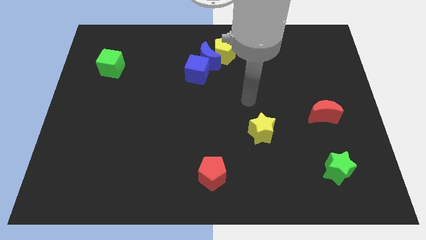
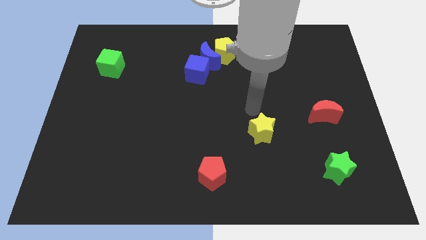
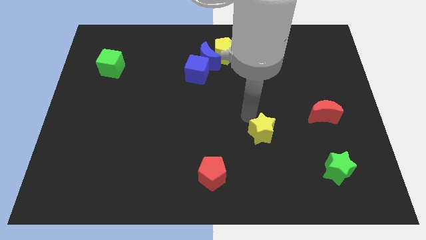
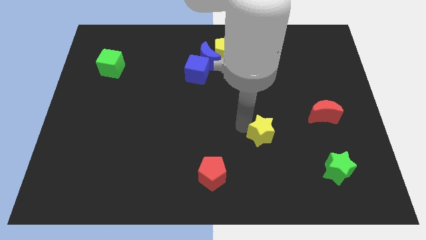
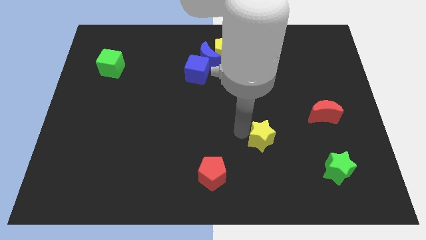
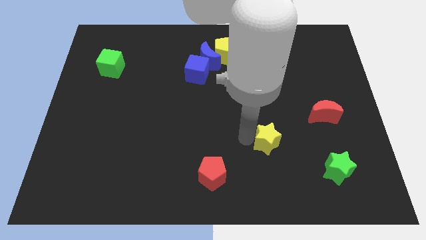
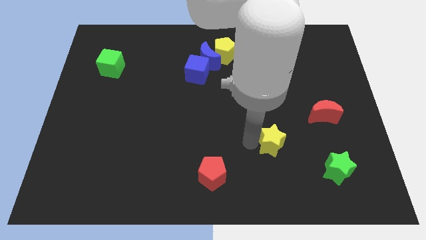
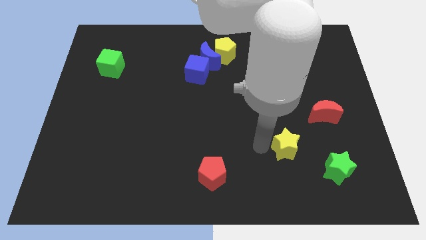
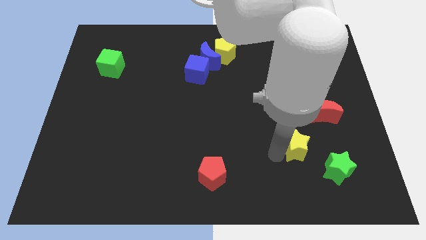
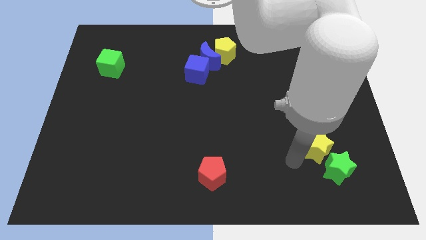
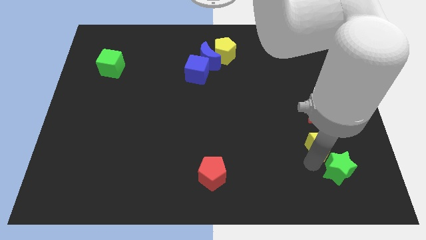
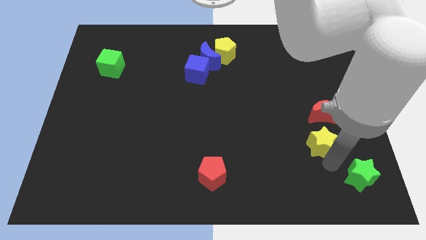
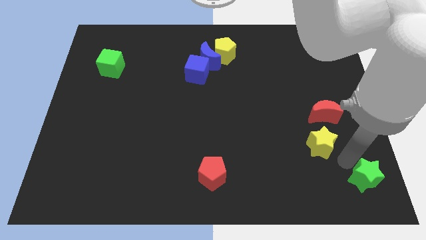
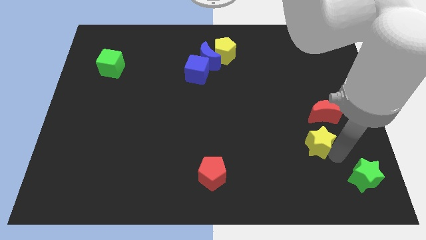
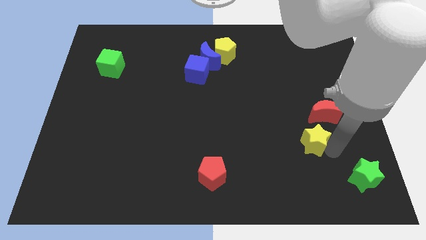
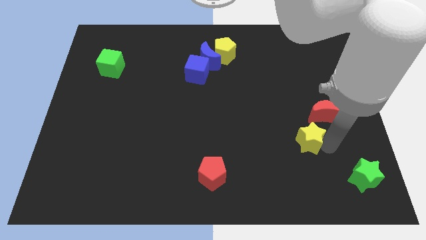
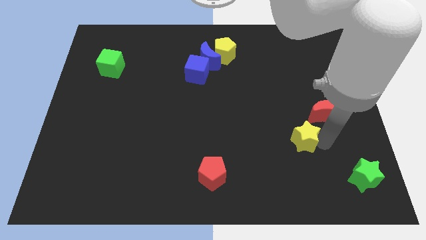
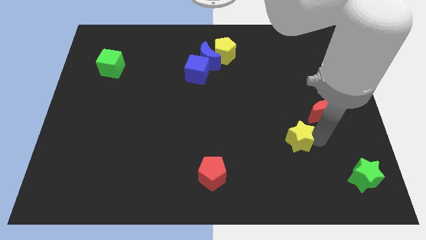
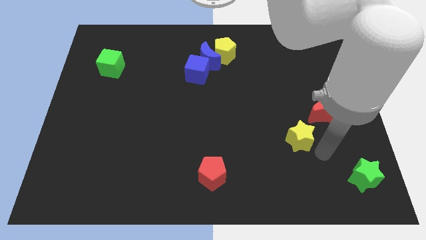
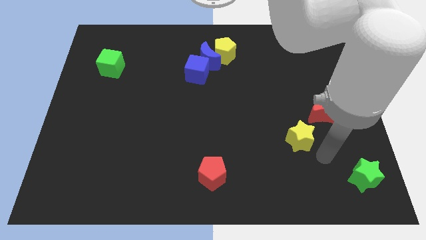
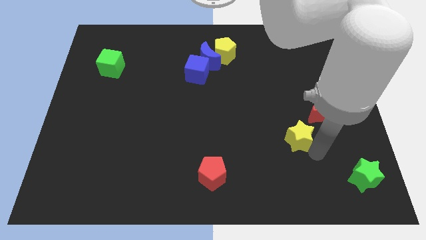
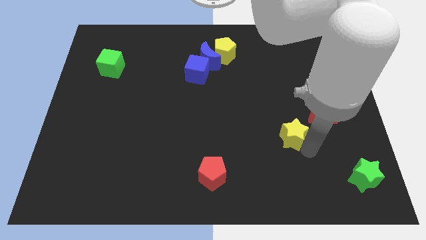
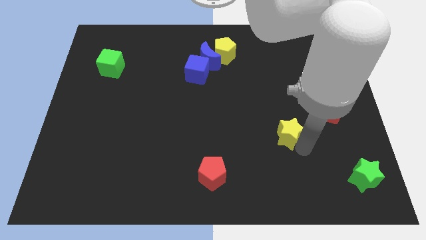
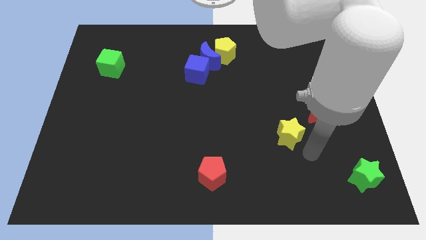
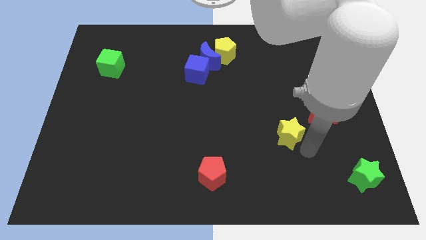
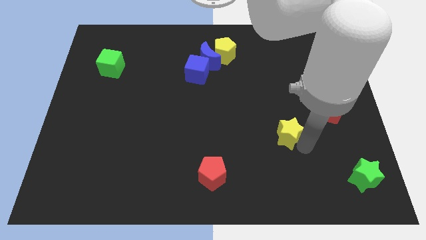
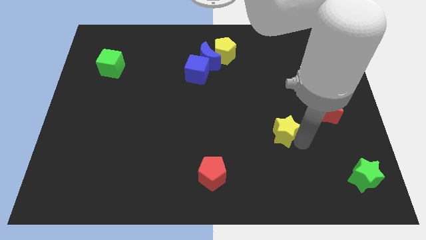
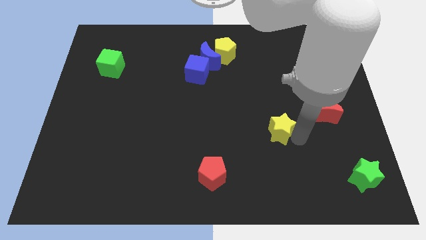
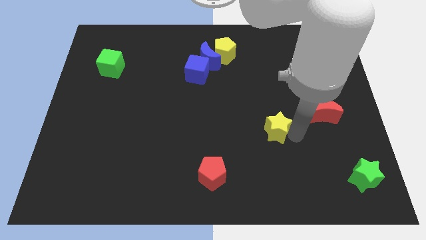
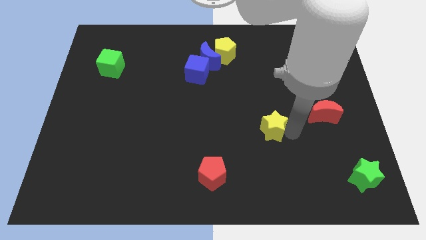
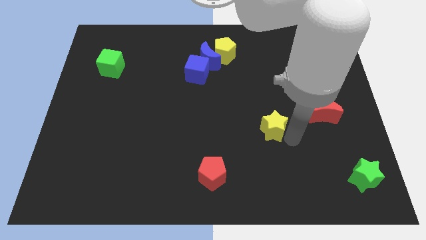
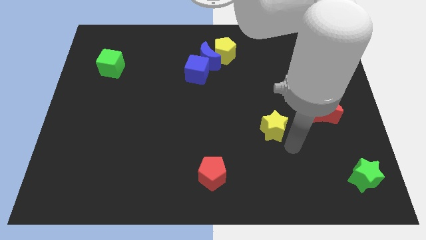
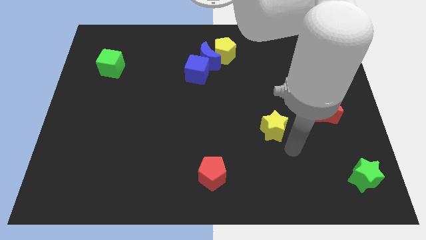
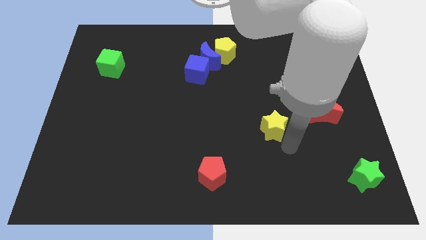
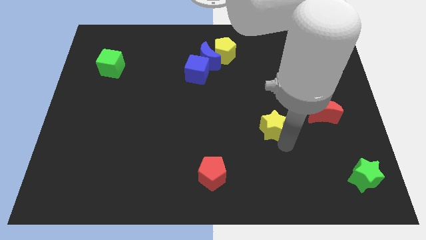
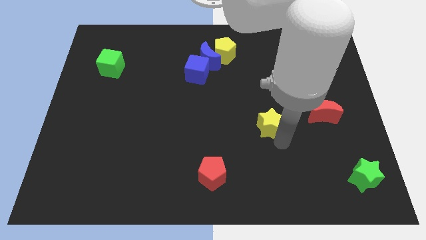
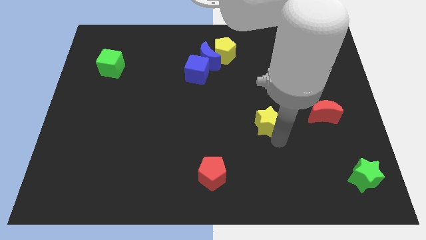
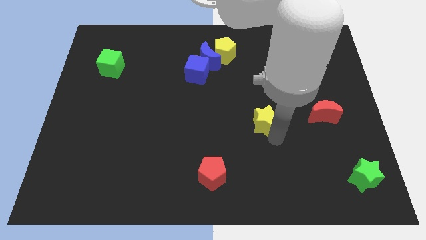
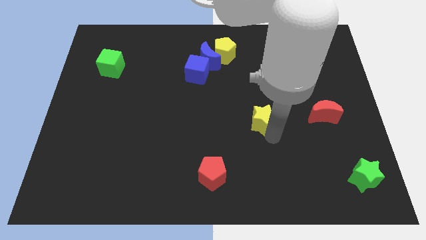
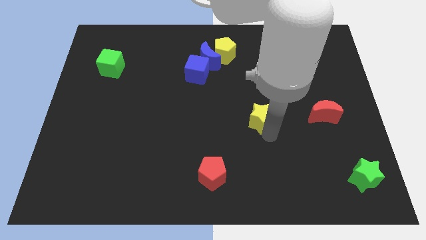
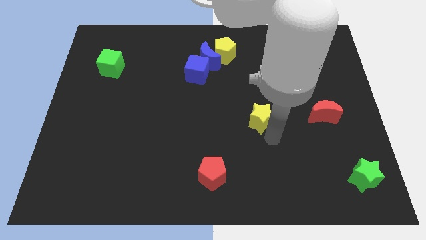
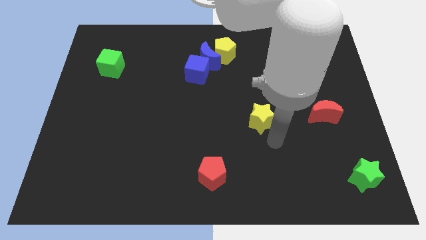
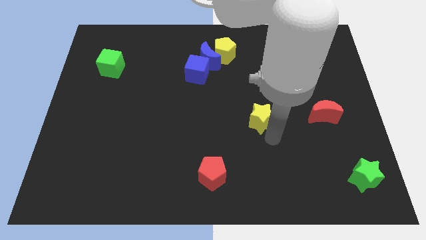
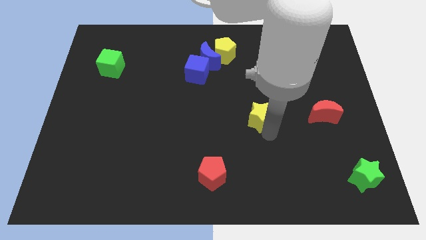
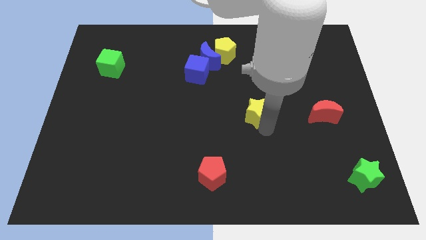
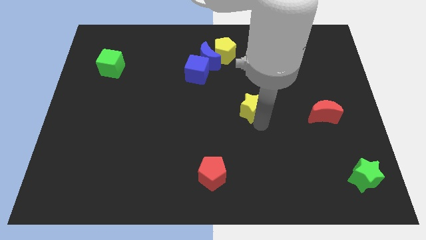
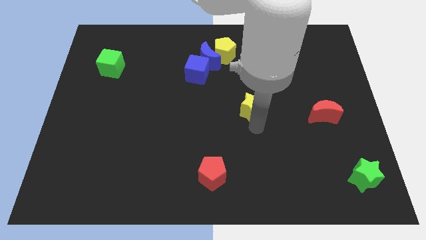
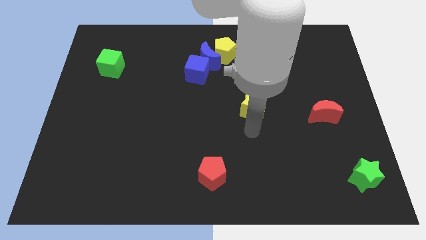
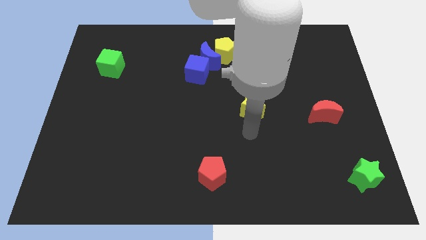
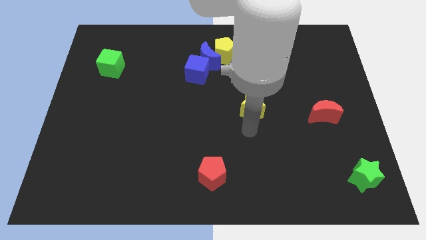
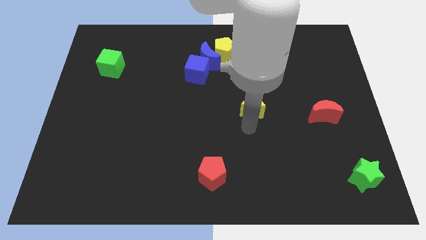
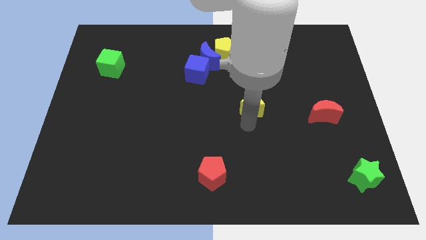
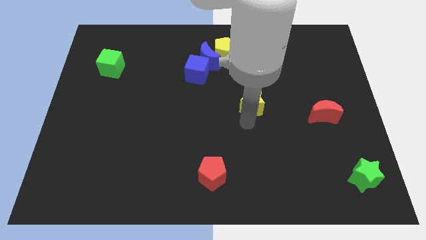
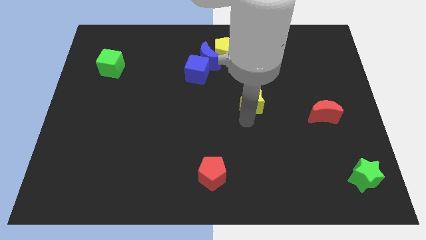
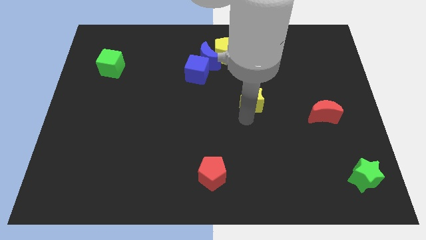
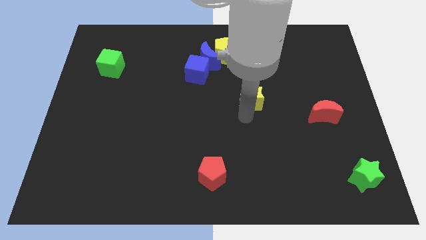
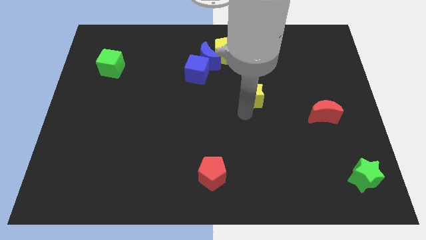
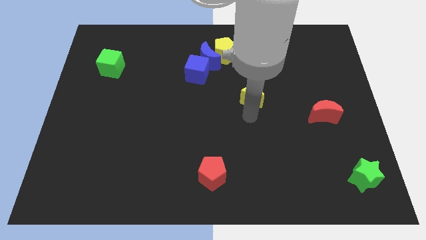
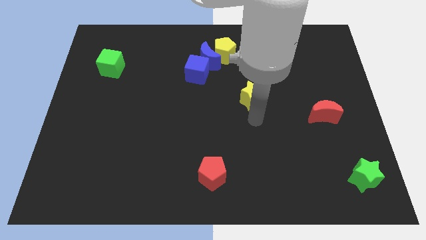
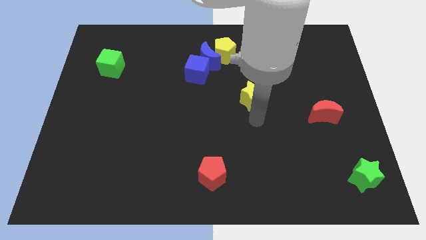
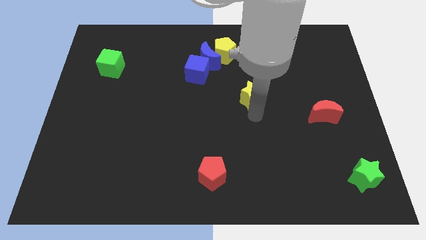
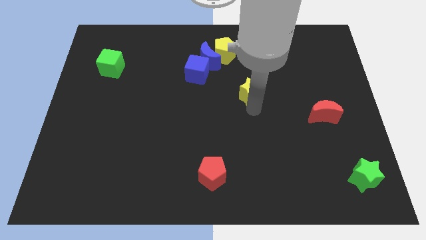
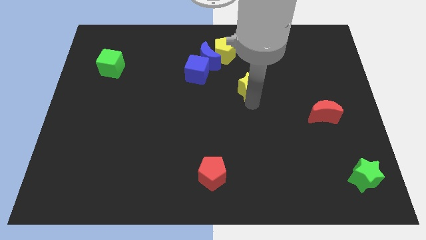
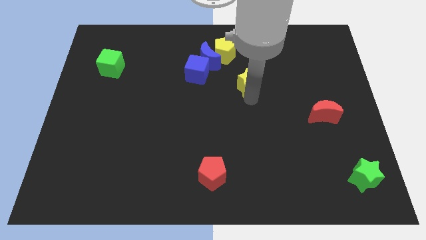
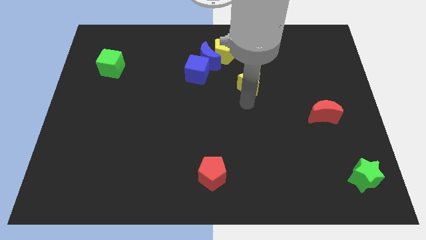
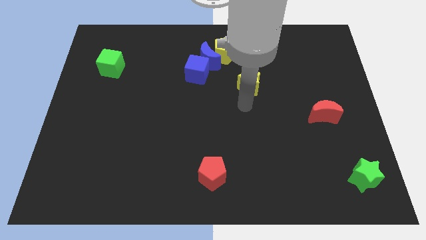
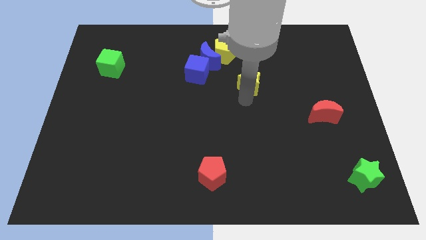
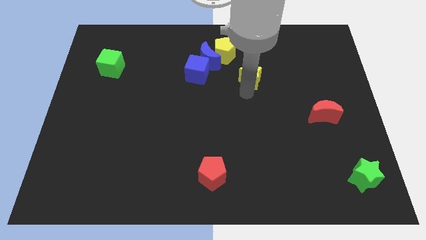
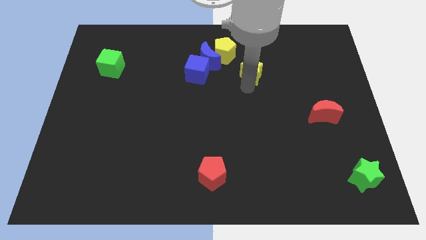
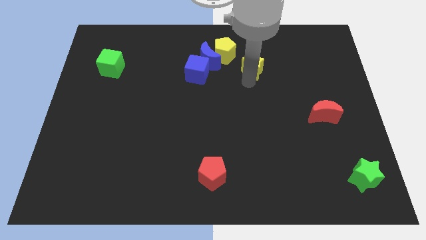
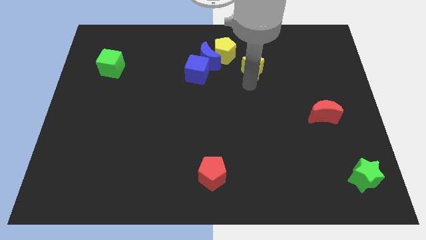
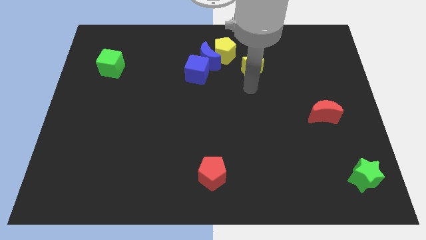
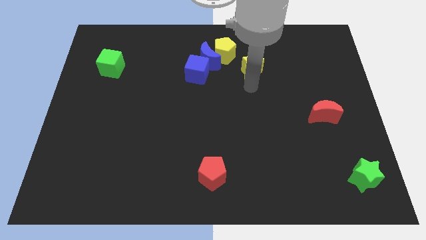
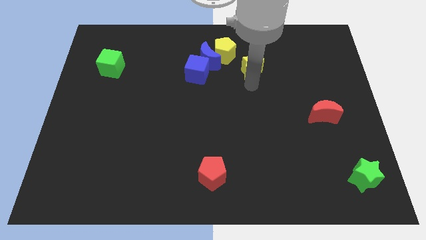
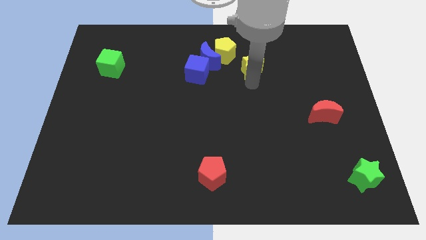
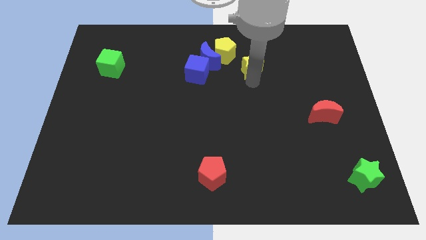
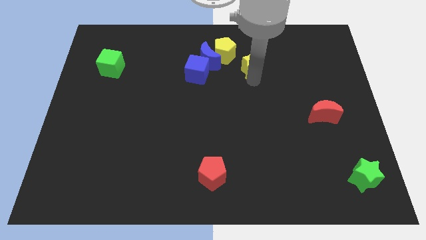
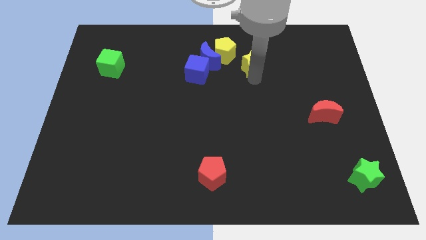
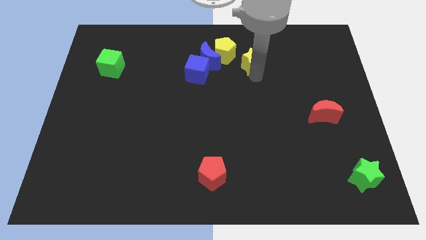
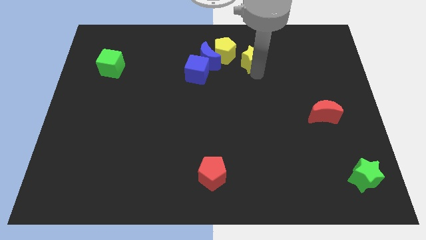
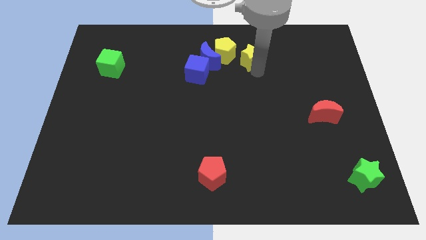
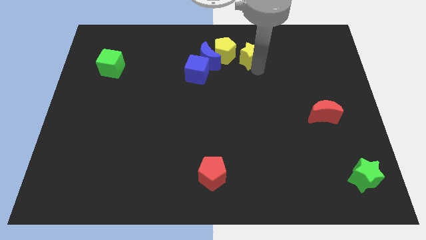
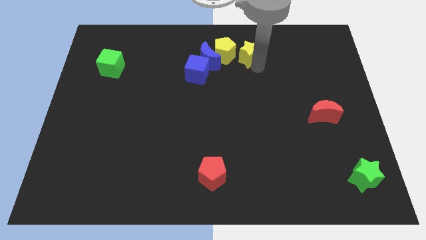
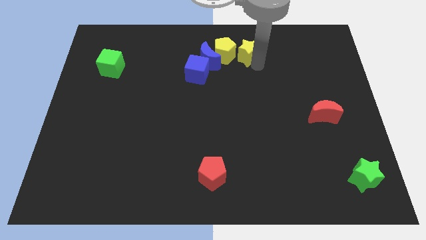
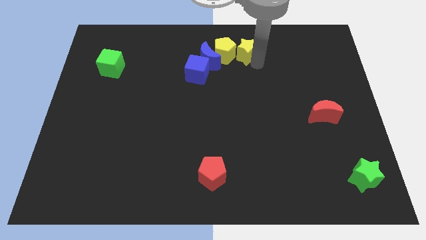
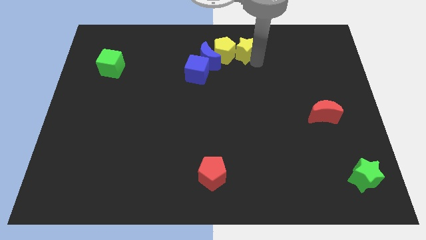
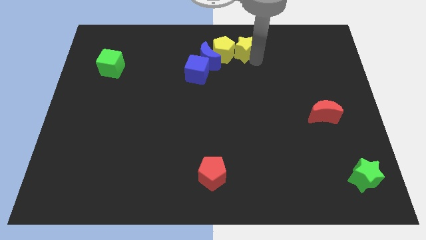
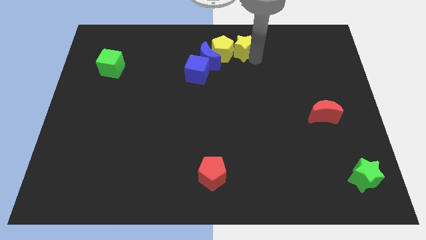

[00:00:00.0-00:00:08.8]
put the yellow star to the top side
